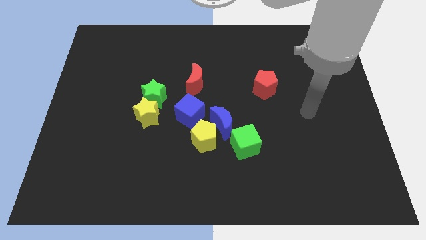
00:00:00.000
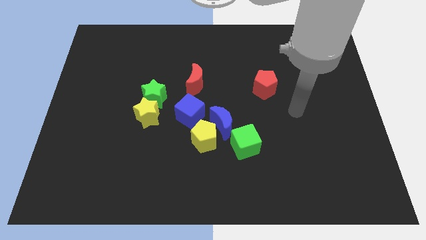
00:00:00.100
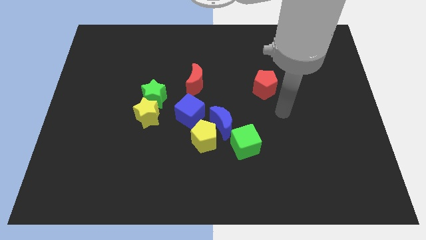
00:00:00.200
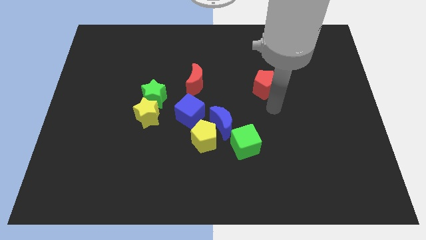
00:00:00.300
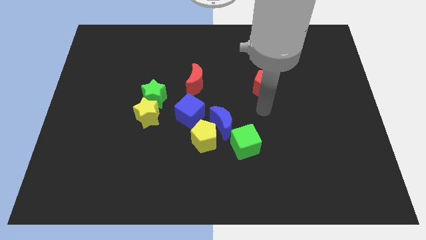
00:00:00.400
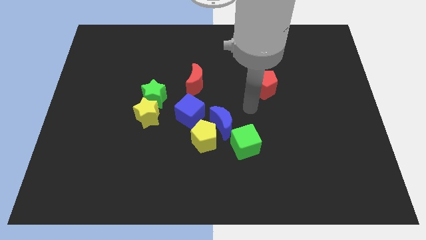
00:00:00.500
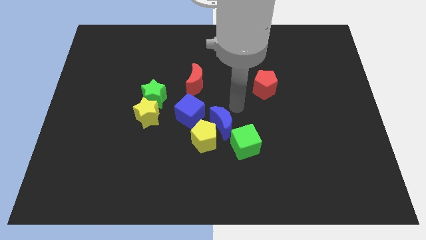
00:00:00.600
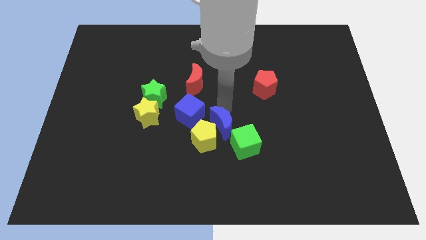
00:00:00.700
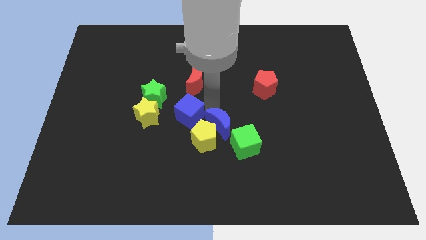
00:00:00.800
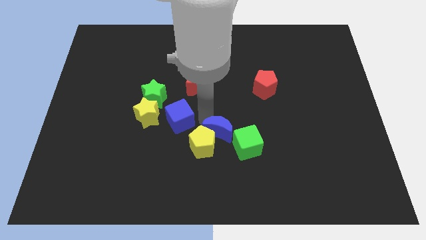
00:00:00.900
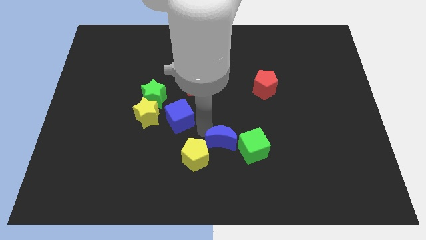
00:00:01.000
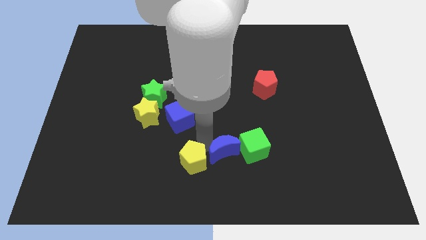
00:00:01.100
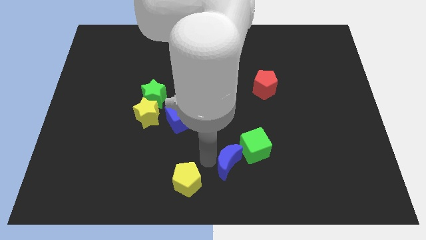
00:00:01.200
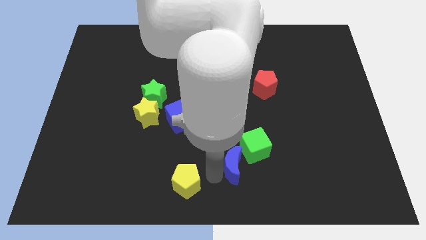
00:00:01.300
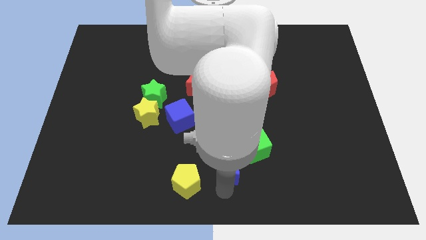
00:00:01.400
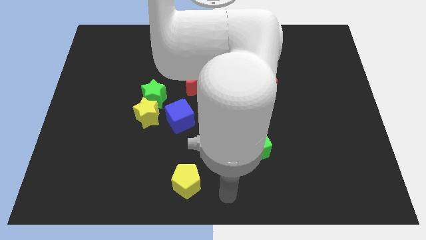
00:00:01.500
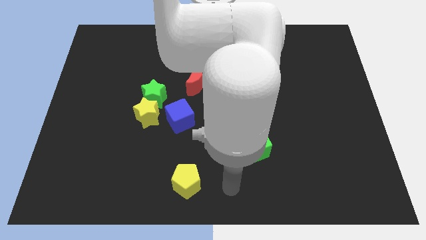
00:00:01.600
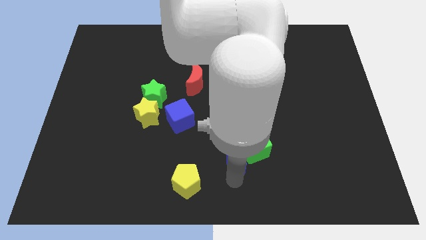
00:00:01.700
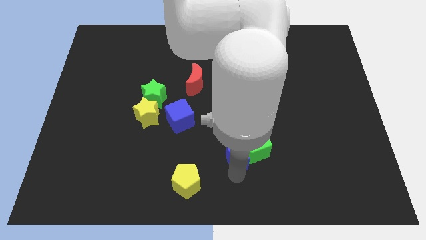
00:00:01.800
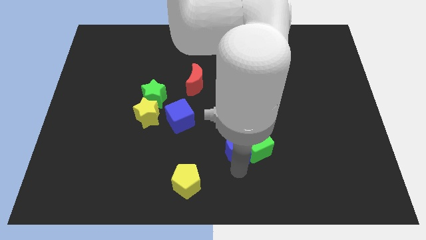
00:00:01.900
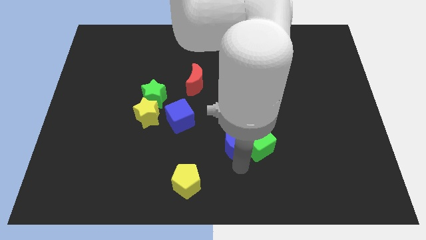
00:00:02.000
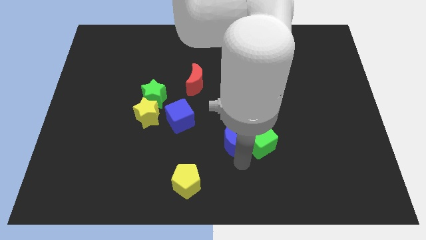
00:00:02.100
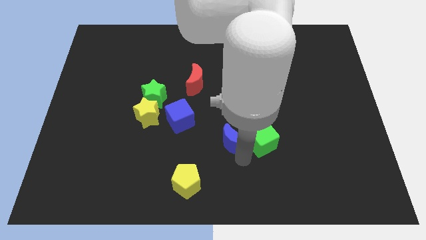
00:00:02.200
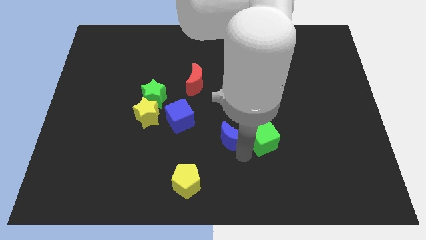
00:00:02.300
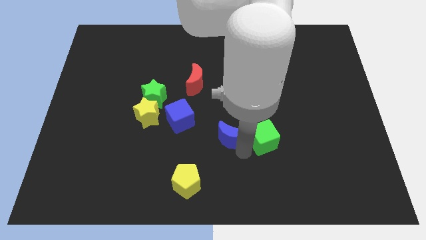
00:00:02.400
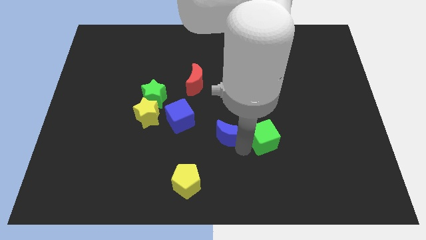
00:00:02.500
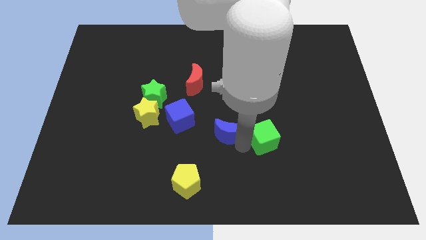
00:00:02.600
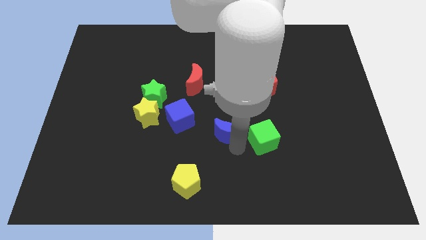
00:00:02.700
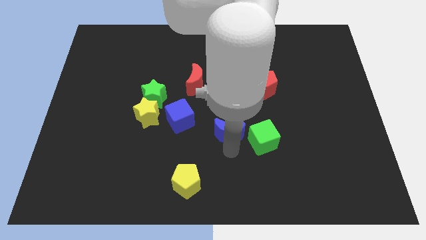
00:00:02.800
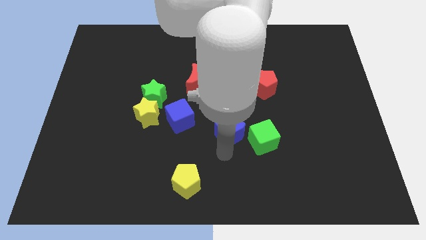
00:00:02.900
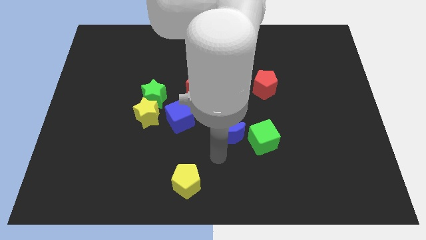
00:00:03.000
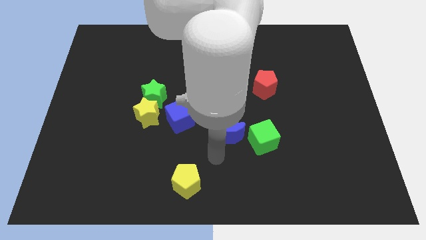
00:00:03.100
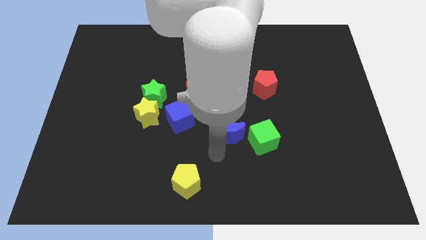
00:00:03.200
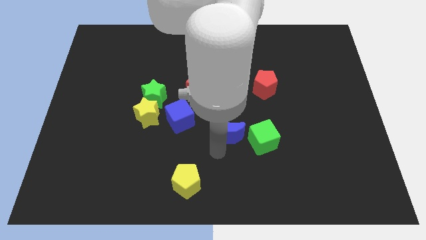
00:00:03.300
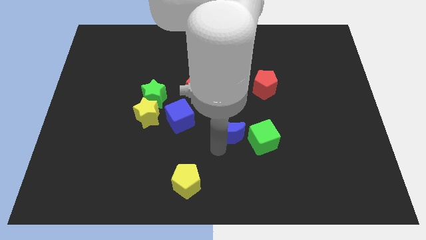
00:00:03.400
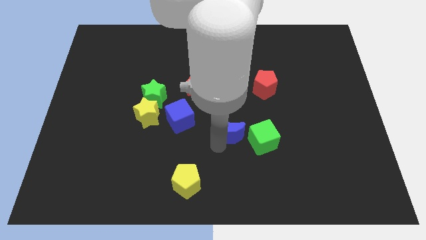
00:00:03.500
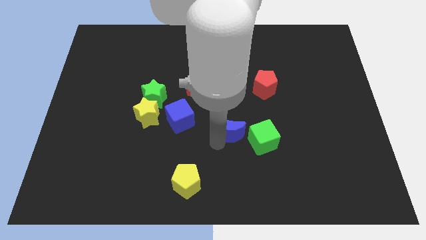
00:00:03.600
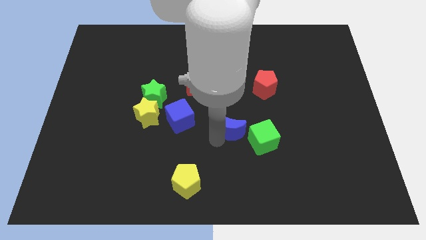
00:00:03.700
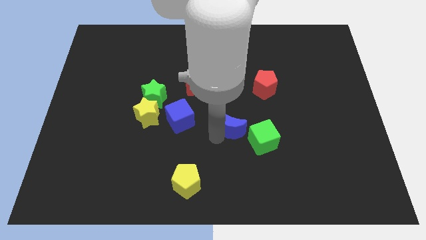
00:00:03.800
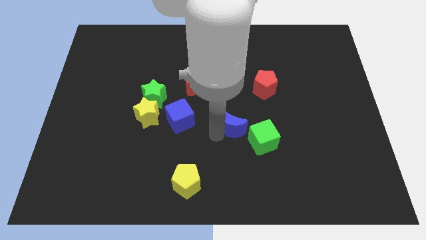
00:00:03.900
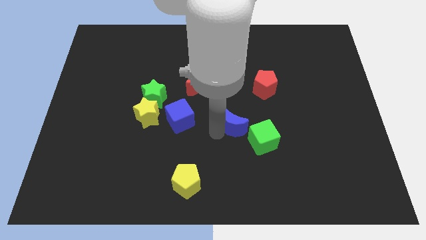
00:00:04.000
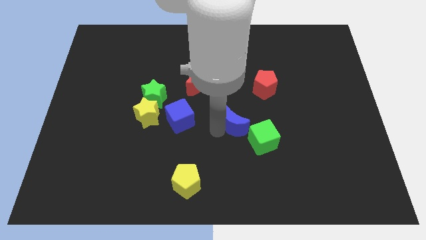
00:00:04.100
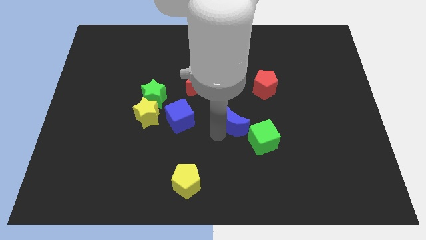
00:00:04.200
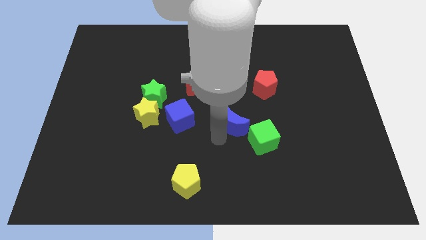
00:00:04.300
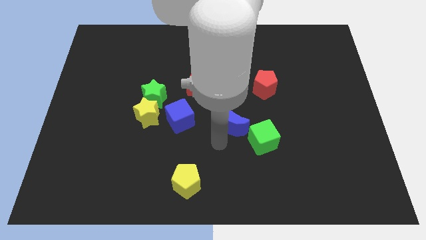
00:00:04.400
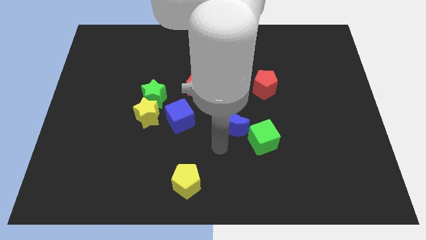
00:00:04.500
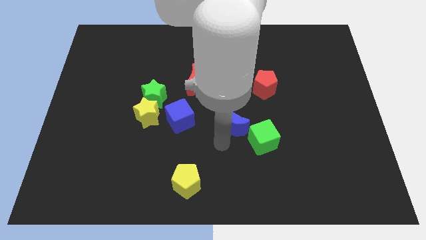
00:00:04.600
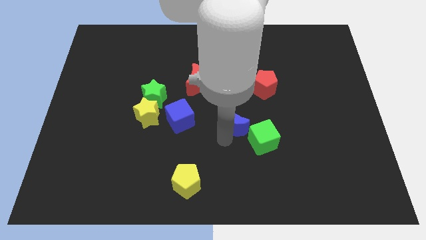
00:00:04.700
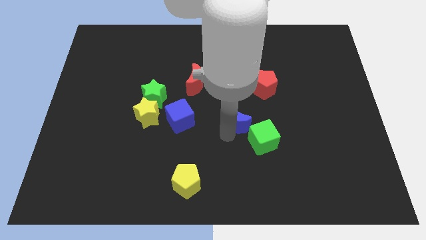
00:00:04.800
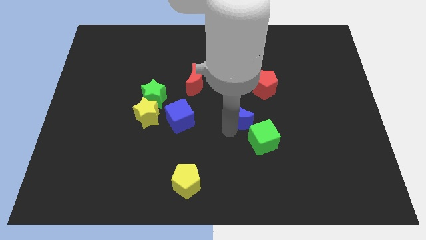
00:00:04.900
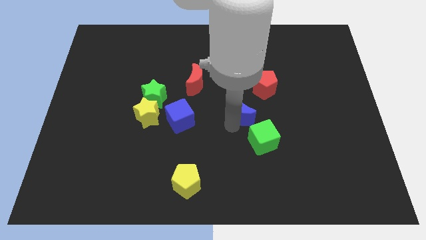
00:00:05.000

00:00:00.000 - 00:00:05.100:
pull the blue moon apart from the group of blocks

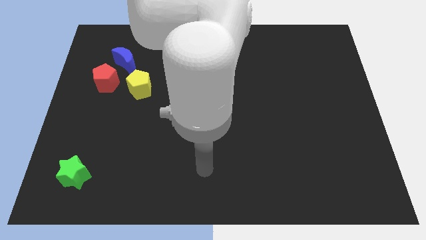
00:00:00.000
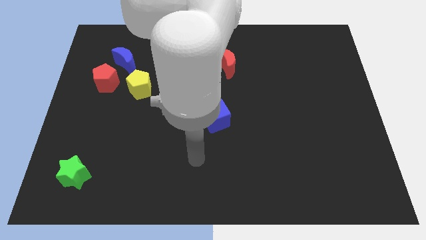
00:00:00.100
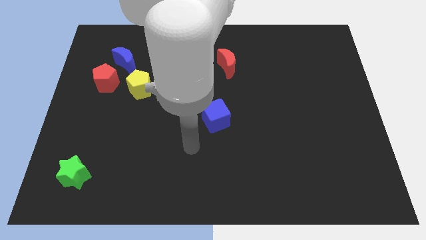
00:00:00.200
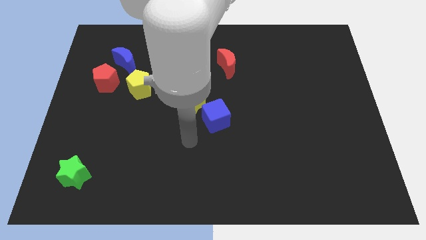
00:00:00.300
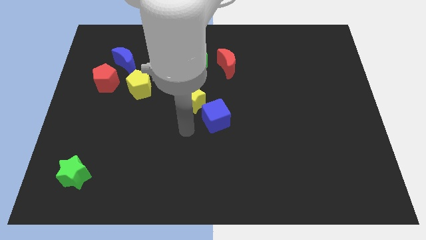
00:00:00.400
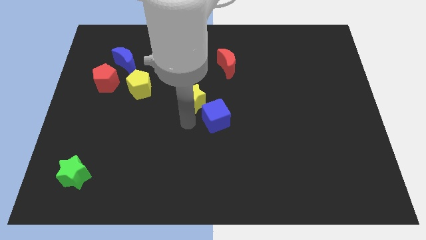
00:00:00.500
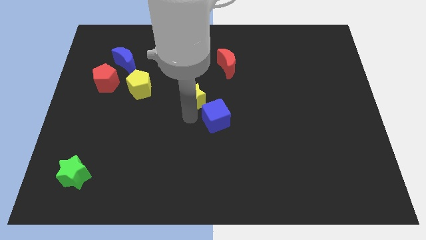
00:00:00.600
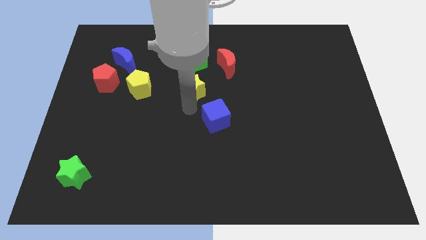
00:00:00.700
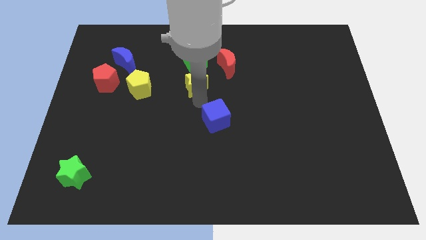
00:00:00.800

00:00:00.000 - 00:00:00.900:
separate the blue cube from the yellow star

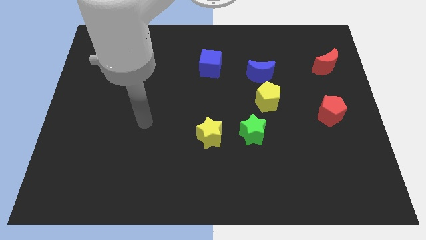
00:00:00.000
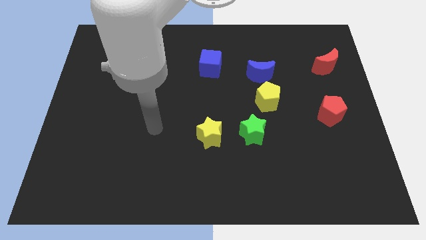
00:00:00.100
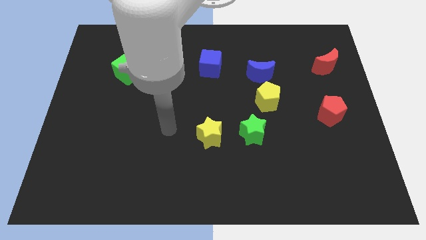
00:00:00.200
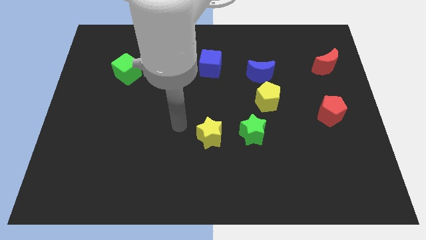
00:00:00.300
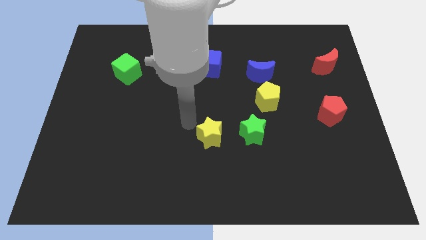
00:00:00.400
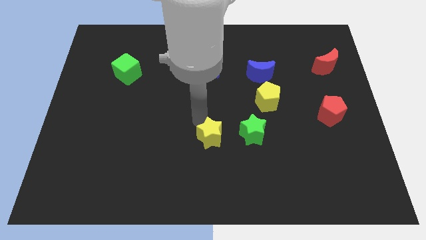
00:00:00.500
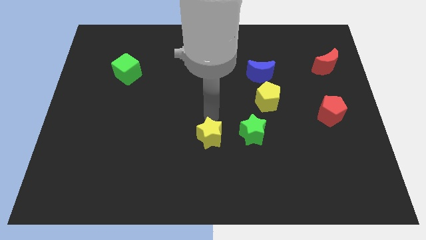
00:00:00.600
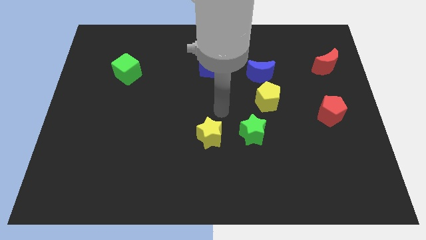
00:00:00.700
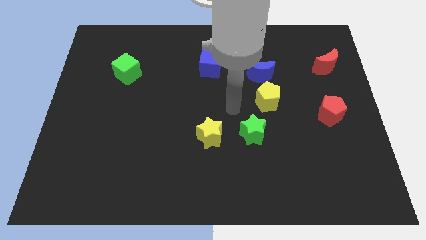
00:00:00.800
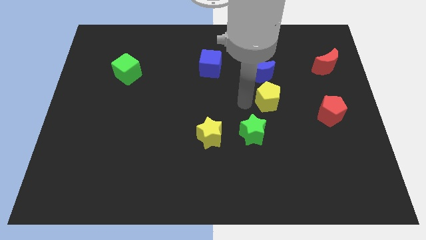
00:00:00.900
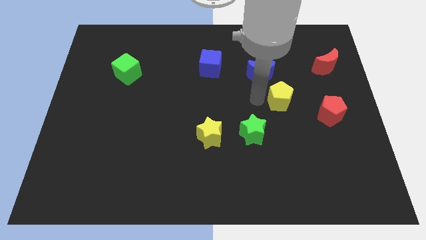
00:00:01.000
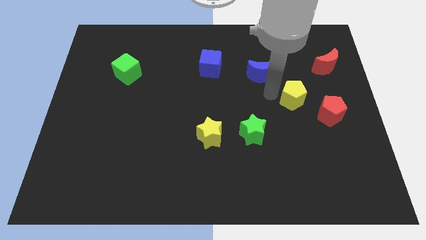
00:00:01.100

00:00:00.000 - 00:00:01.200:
move the blue moon away from the yellow pentagon

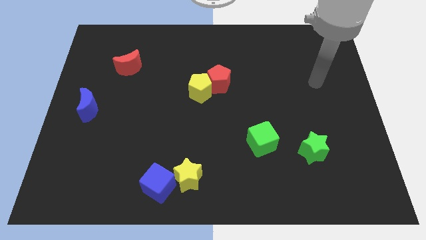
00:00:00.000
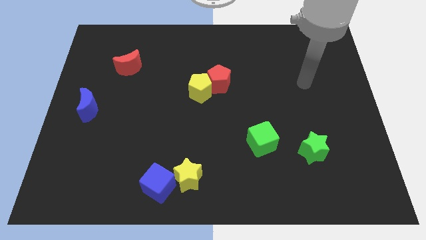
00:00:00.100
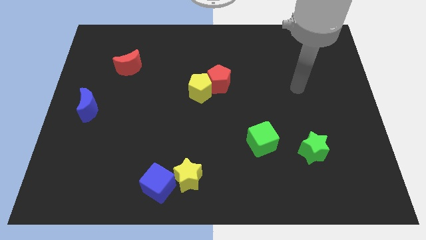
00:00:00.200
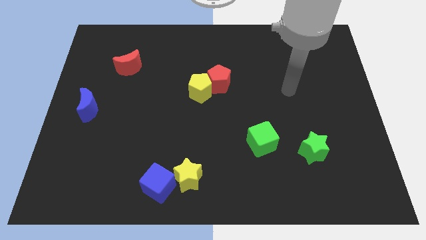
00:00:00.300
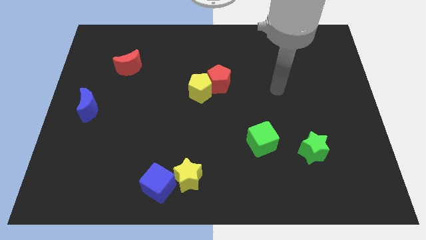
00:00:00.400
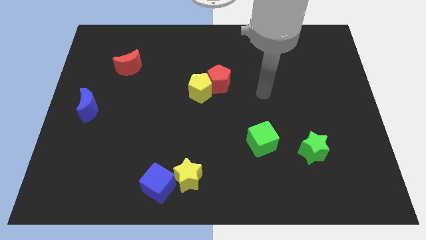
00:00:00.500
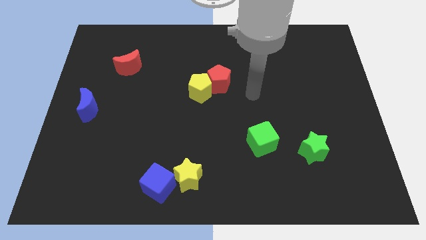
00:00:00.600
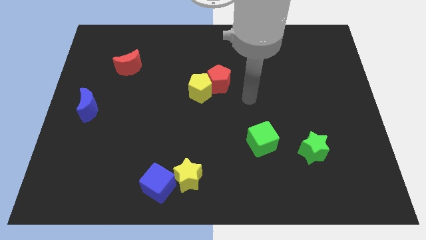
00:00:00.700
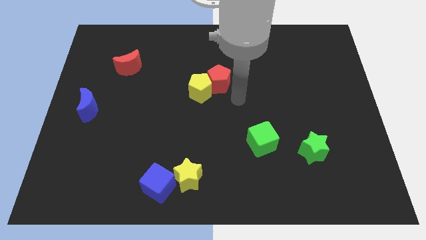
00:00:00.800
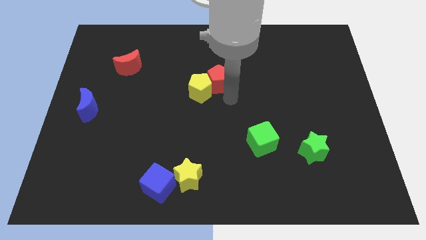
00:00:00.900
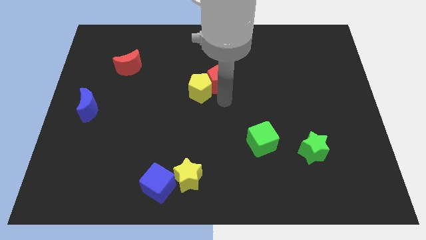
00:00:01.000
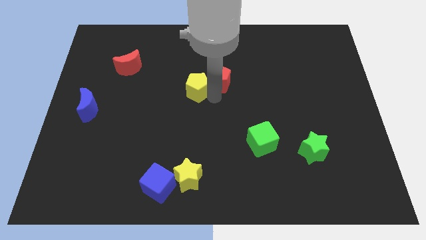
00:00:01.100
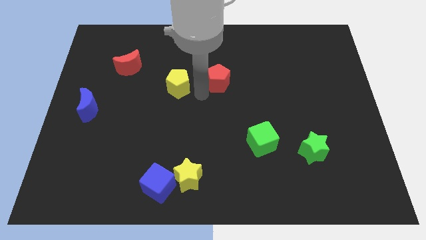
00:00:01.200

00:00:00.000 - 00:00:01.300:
pull the red pentagon apart from the yellow pentagon

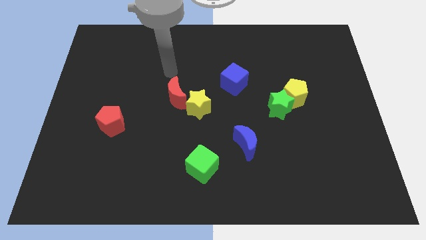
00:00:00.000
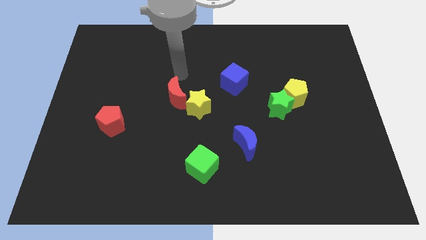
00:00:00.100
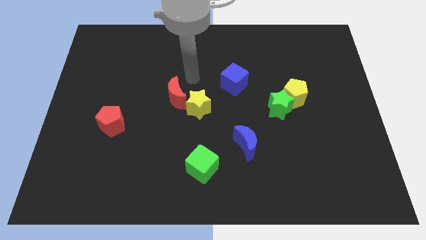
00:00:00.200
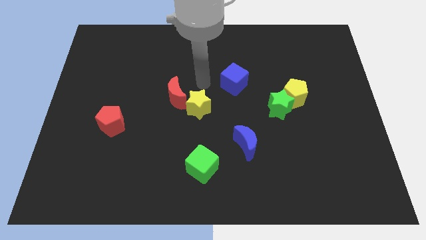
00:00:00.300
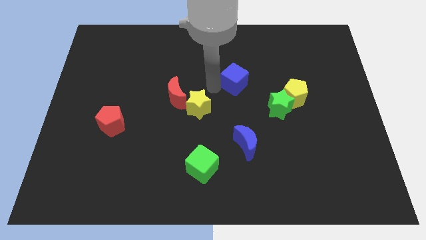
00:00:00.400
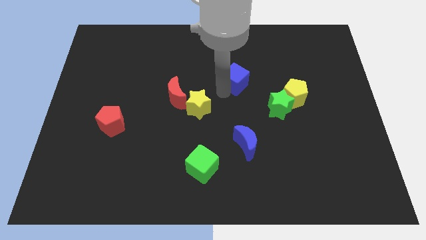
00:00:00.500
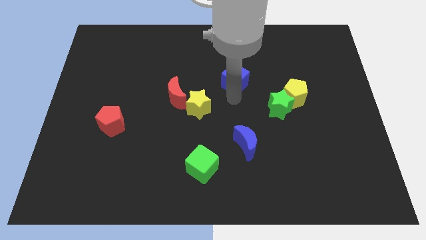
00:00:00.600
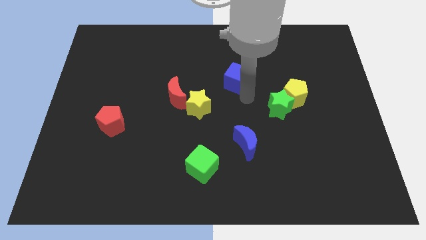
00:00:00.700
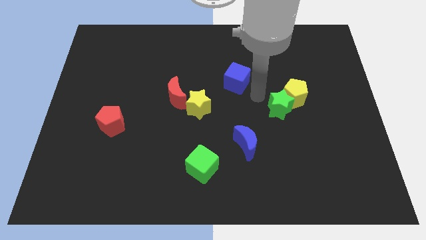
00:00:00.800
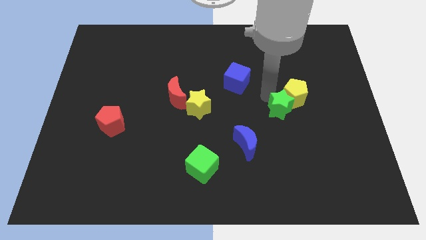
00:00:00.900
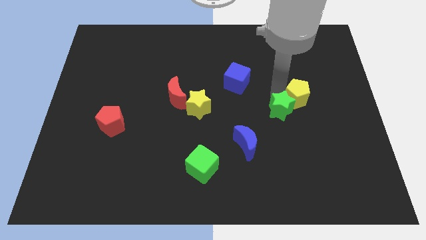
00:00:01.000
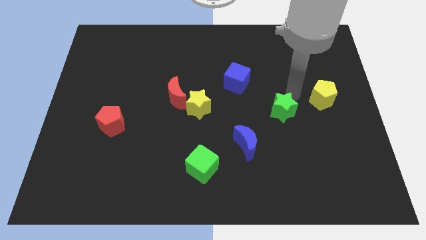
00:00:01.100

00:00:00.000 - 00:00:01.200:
separate the green star from the yellow pentagon
